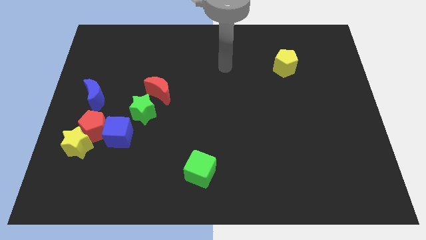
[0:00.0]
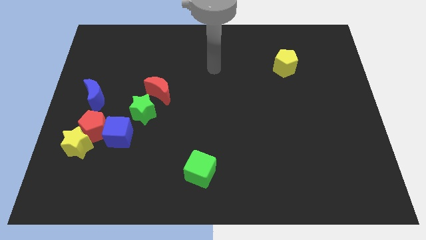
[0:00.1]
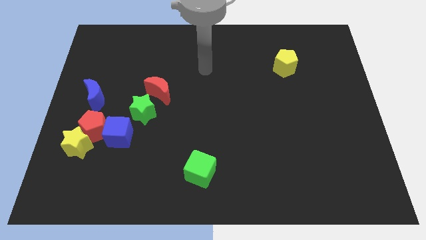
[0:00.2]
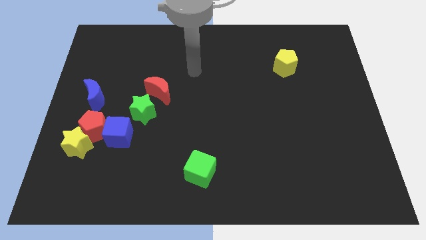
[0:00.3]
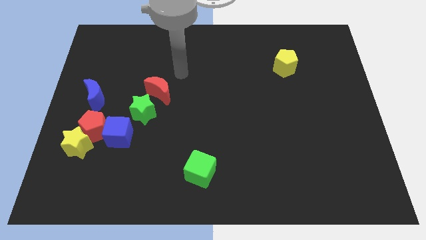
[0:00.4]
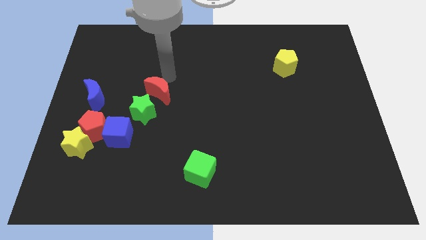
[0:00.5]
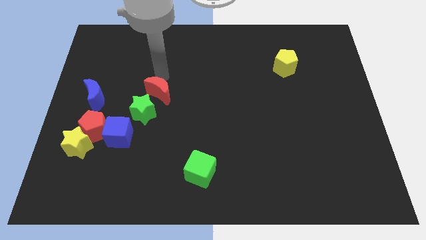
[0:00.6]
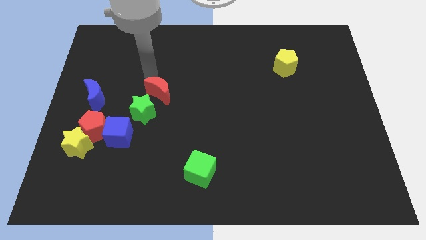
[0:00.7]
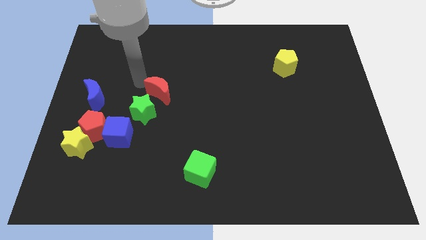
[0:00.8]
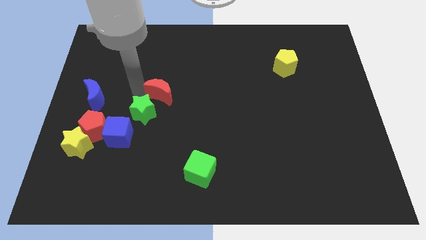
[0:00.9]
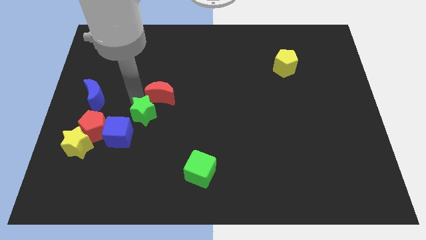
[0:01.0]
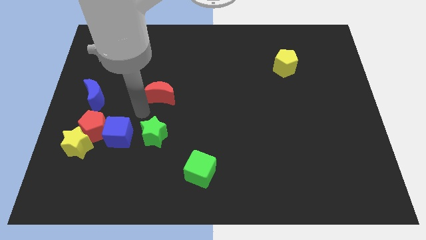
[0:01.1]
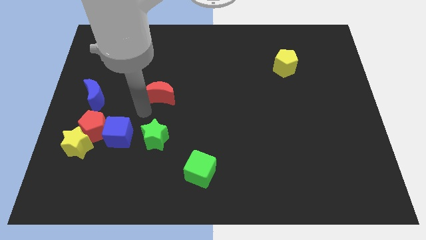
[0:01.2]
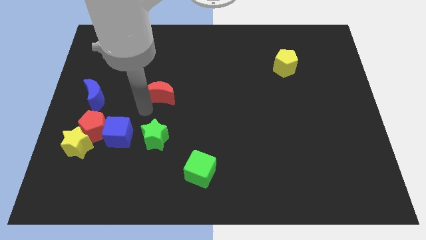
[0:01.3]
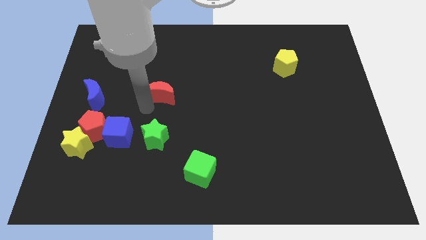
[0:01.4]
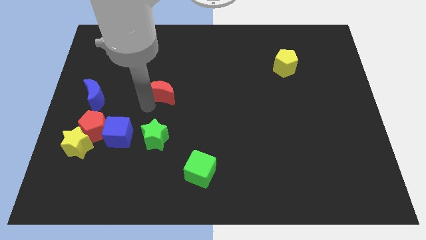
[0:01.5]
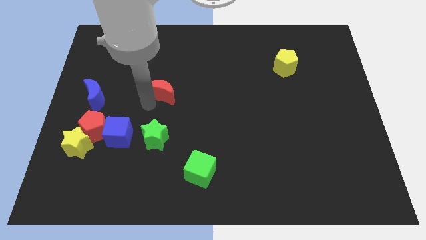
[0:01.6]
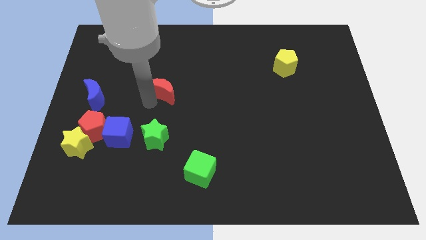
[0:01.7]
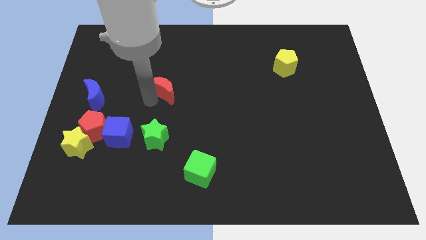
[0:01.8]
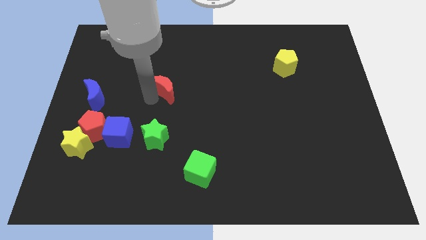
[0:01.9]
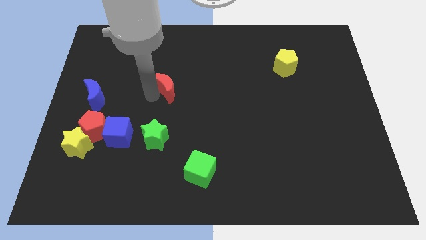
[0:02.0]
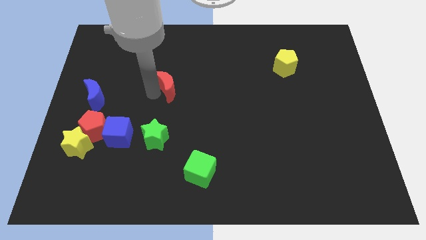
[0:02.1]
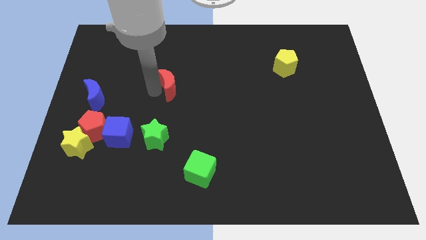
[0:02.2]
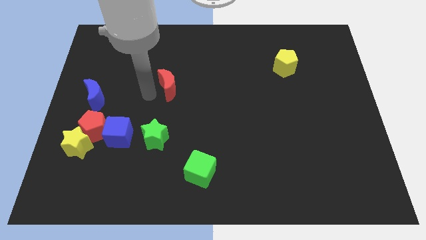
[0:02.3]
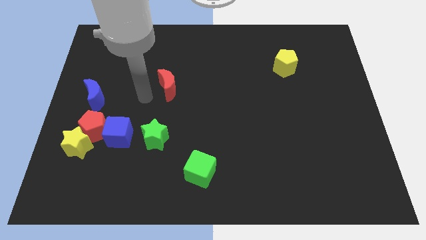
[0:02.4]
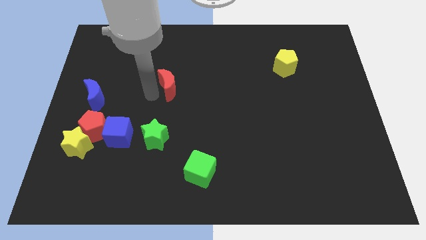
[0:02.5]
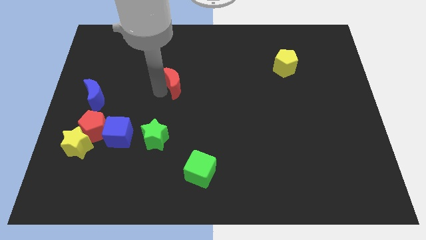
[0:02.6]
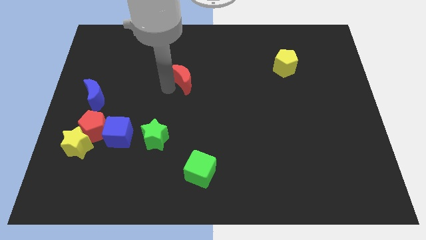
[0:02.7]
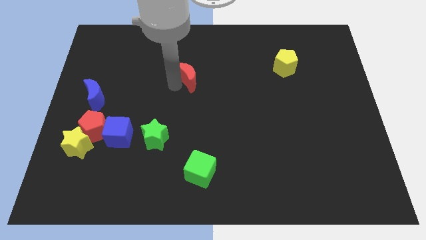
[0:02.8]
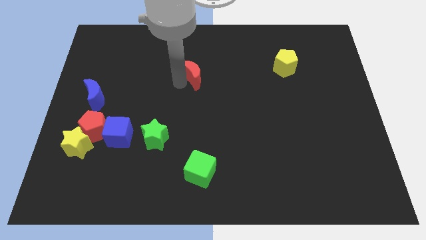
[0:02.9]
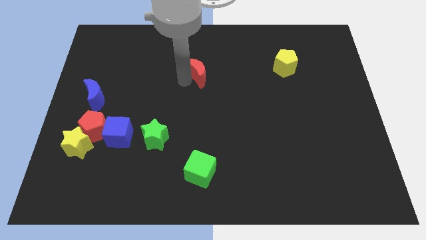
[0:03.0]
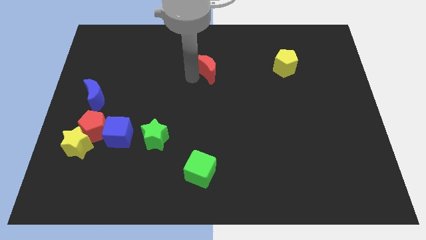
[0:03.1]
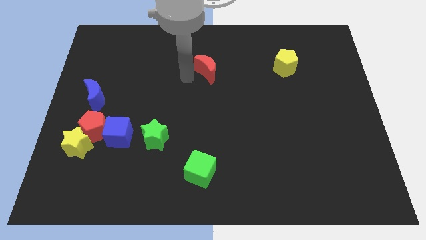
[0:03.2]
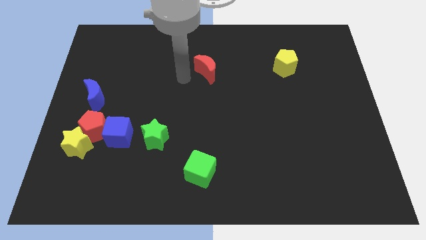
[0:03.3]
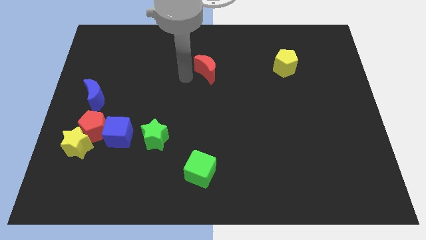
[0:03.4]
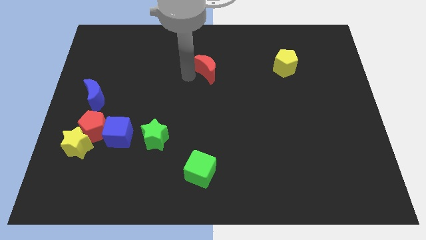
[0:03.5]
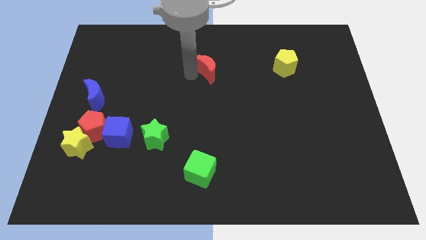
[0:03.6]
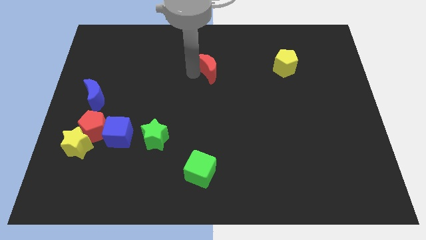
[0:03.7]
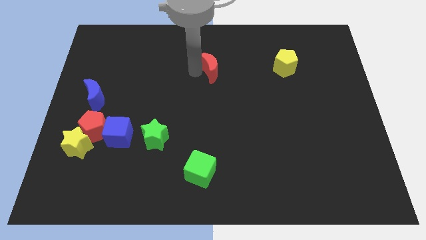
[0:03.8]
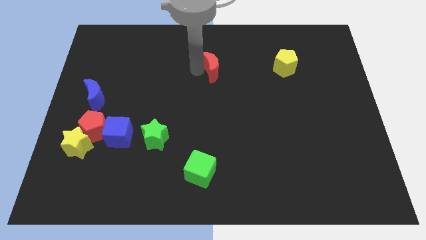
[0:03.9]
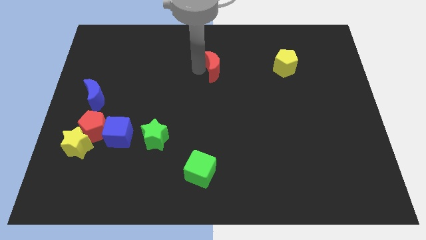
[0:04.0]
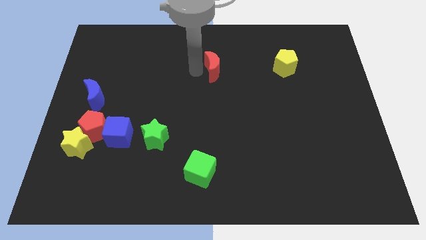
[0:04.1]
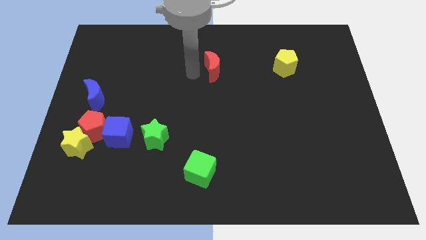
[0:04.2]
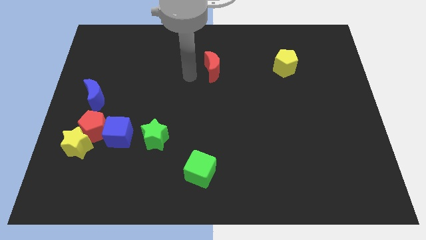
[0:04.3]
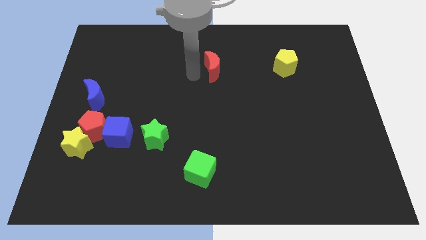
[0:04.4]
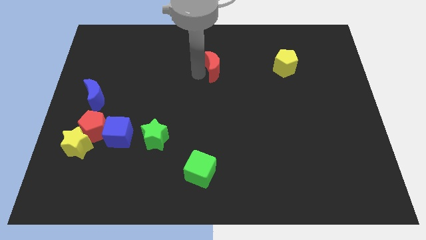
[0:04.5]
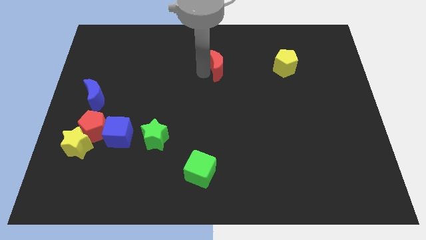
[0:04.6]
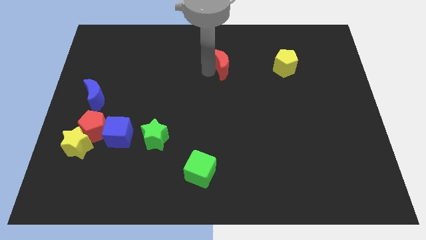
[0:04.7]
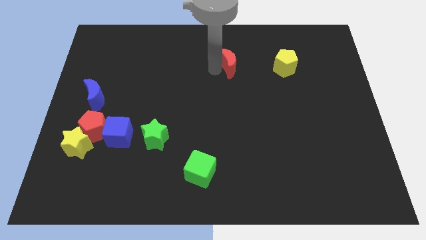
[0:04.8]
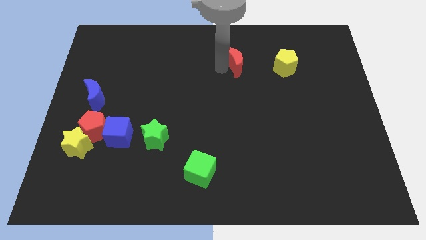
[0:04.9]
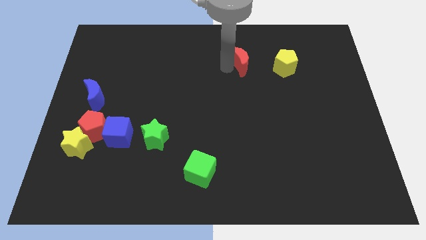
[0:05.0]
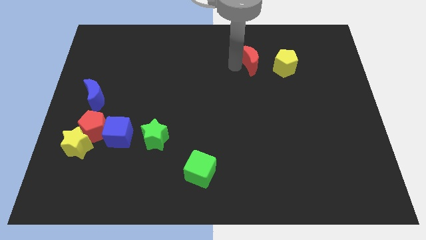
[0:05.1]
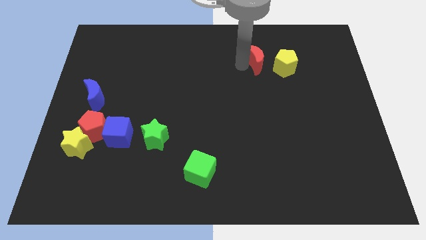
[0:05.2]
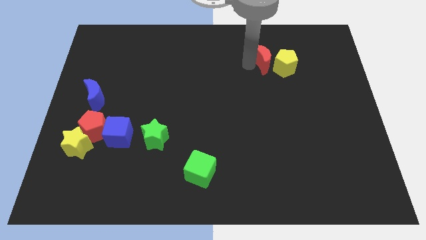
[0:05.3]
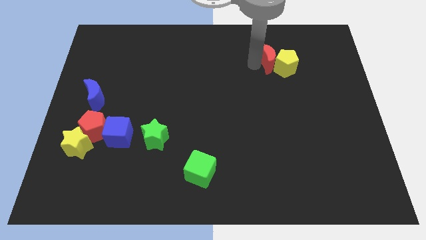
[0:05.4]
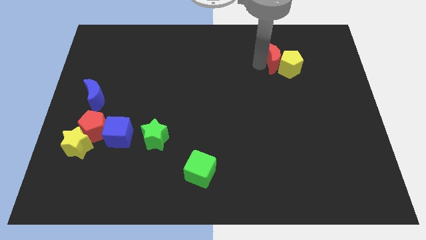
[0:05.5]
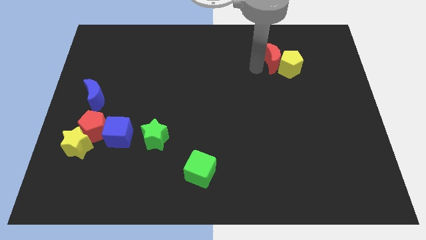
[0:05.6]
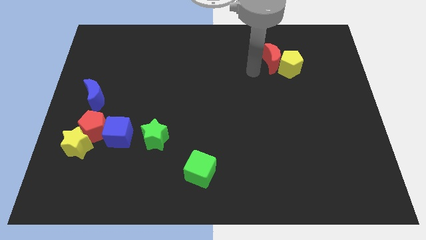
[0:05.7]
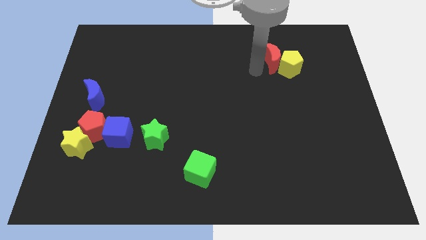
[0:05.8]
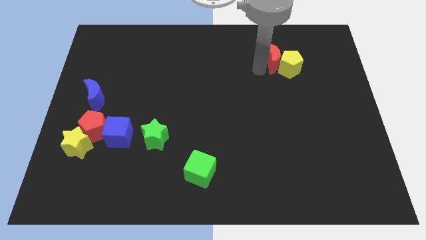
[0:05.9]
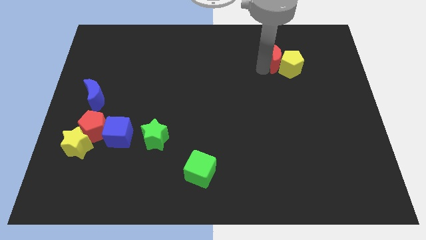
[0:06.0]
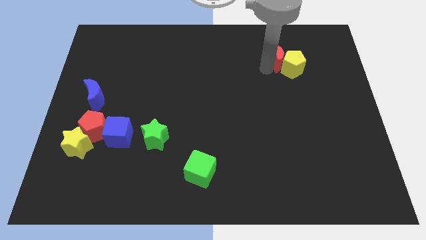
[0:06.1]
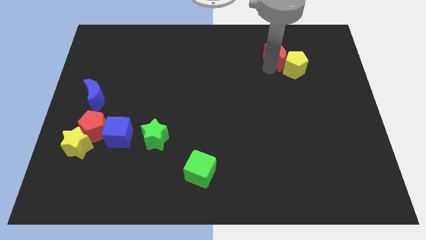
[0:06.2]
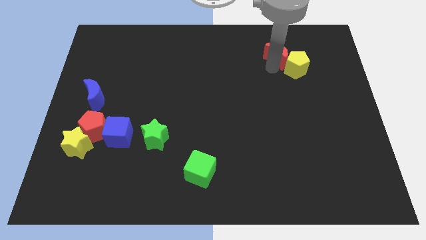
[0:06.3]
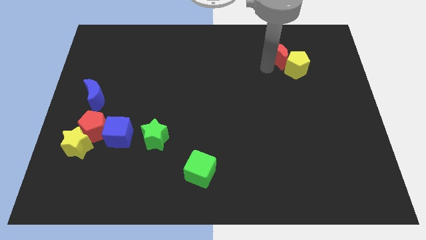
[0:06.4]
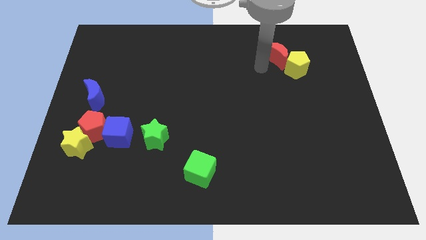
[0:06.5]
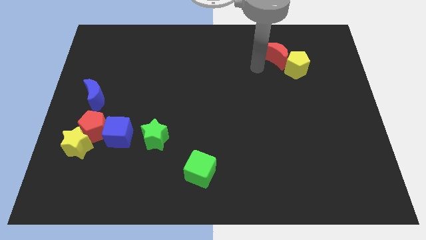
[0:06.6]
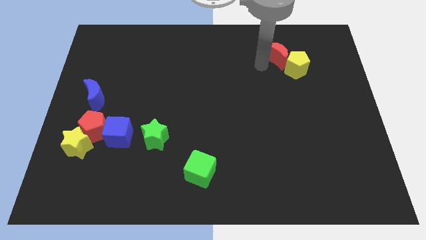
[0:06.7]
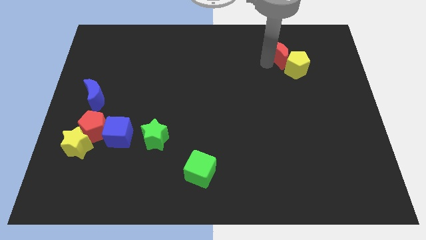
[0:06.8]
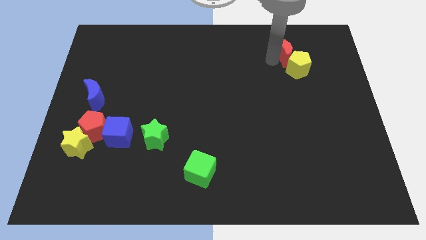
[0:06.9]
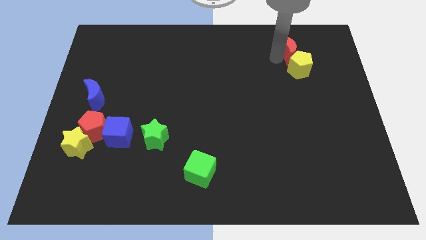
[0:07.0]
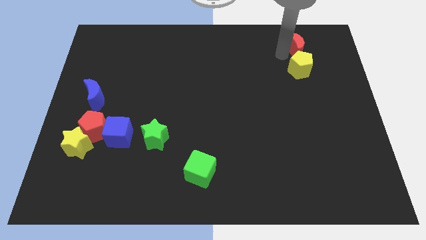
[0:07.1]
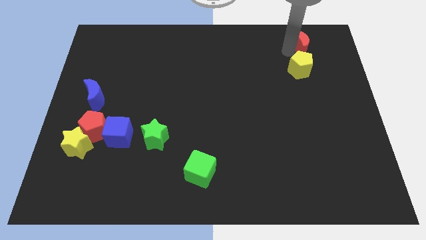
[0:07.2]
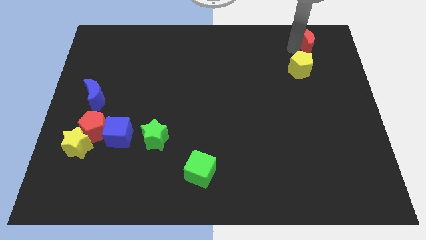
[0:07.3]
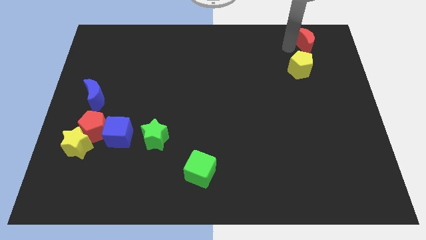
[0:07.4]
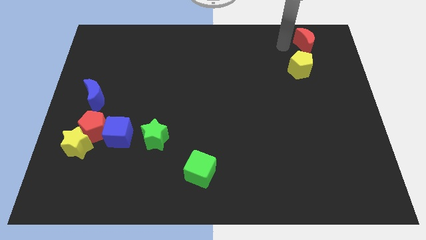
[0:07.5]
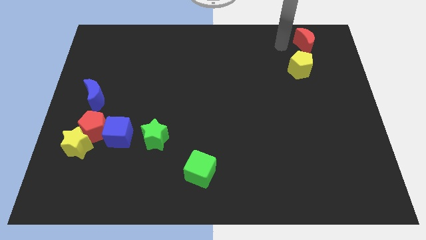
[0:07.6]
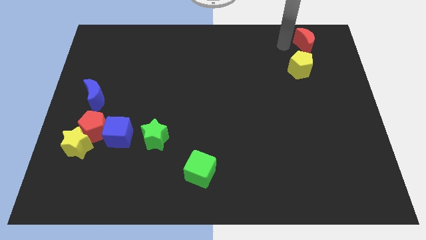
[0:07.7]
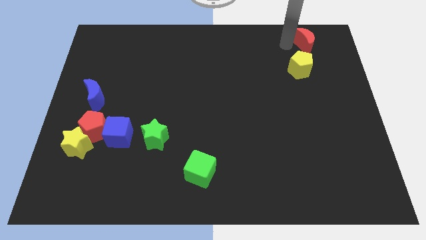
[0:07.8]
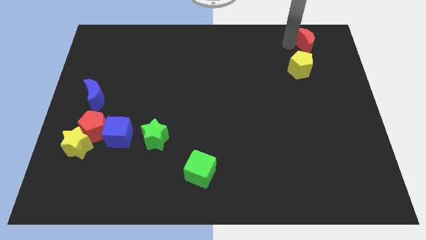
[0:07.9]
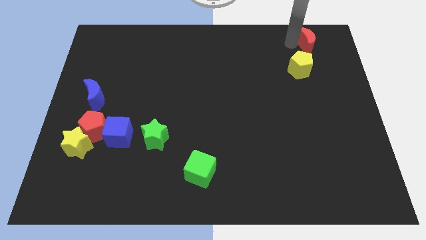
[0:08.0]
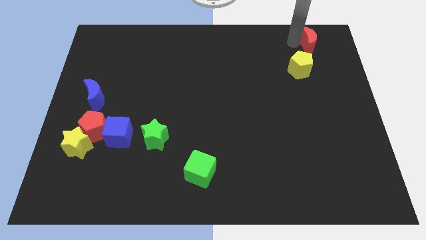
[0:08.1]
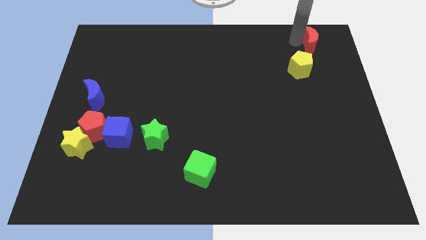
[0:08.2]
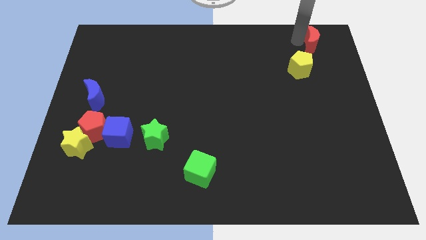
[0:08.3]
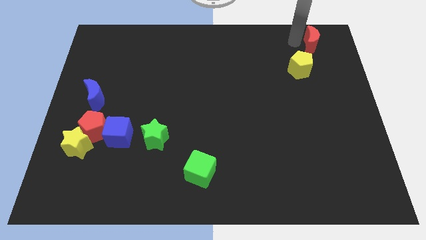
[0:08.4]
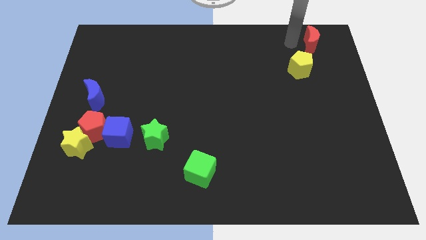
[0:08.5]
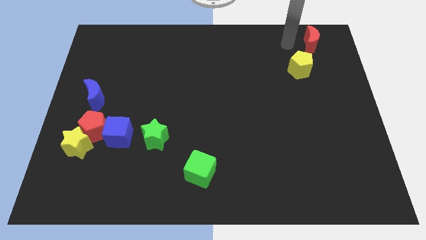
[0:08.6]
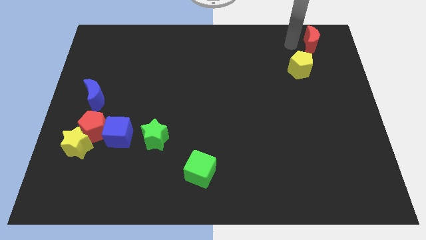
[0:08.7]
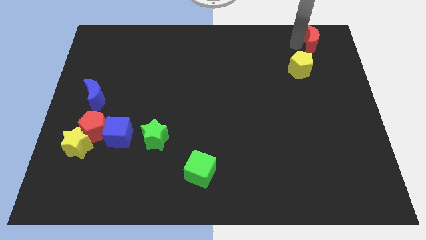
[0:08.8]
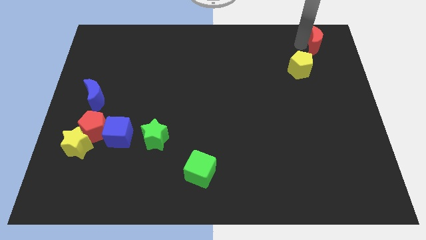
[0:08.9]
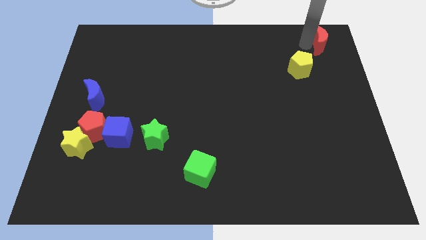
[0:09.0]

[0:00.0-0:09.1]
put the red moon to the top right of the board
